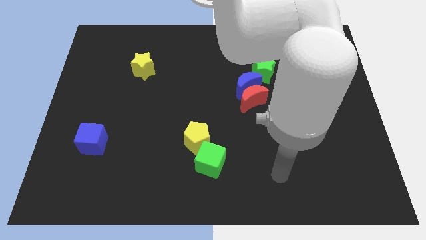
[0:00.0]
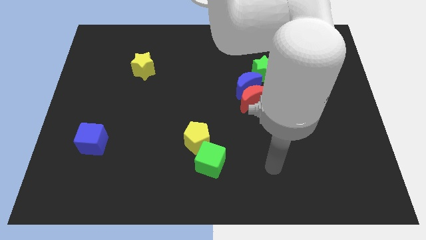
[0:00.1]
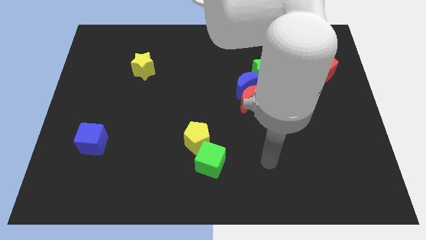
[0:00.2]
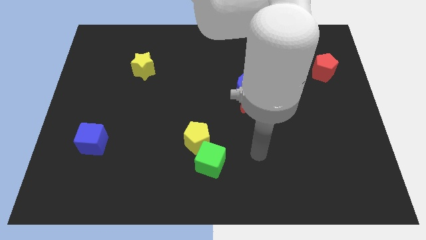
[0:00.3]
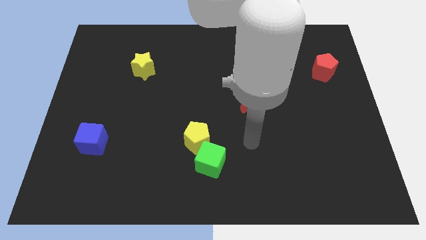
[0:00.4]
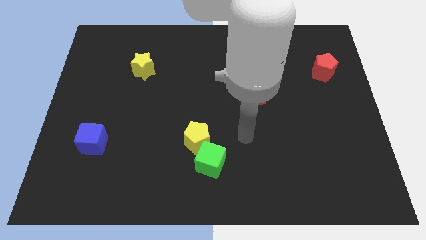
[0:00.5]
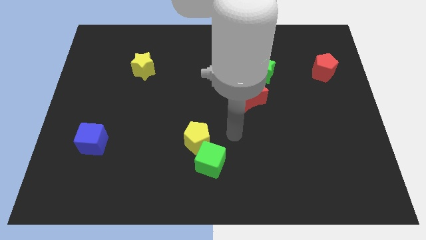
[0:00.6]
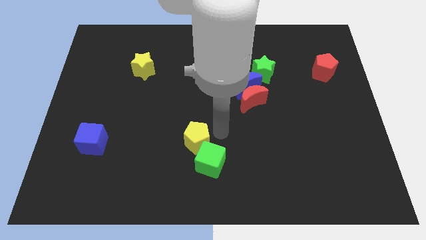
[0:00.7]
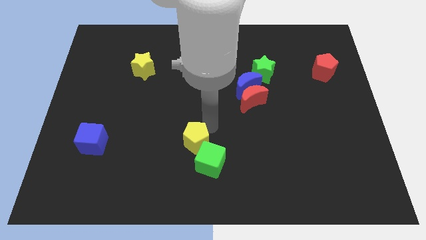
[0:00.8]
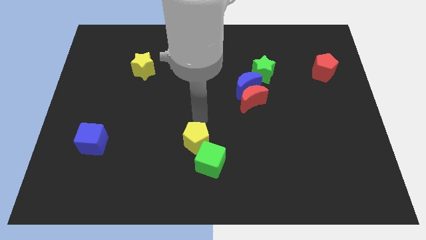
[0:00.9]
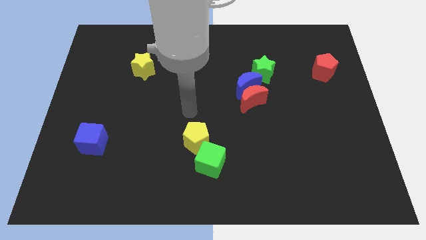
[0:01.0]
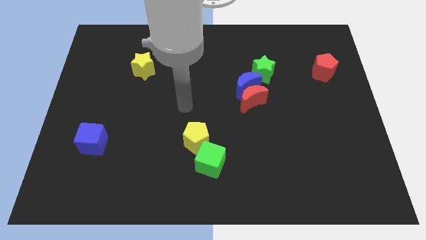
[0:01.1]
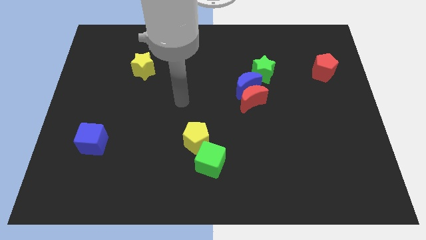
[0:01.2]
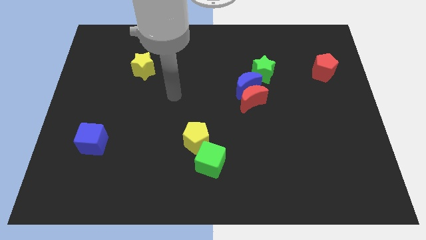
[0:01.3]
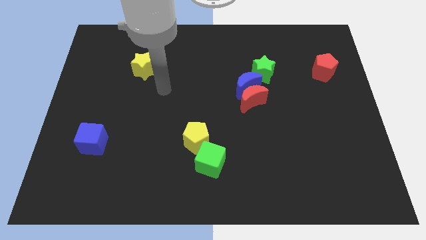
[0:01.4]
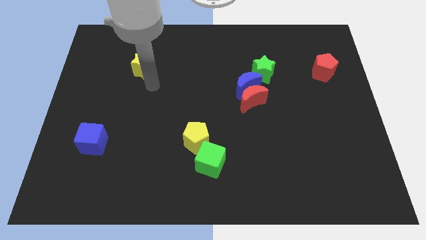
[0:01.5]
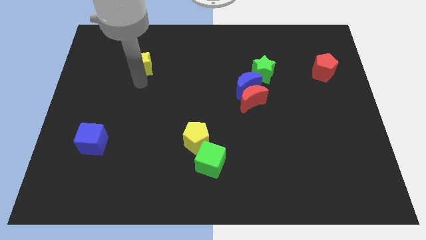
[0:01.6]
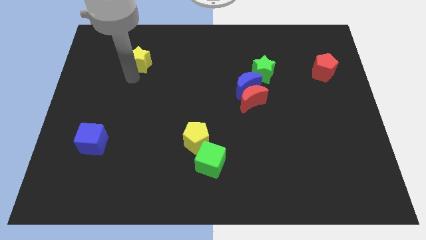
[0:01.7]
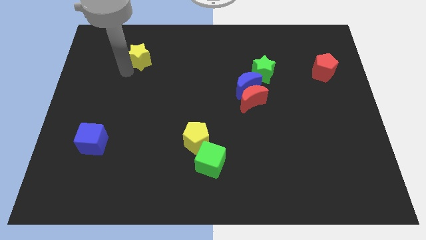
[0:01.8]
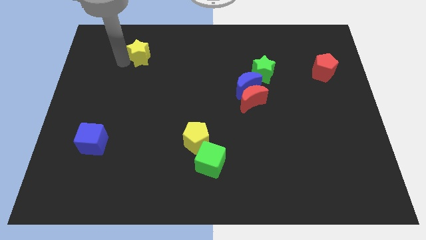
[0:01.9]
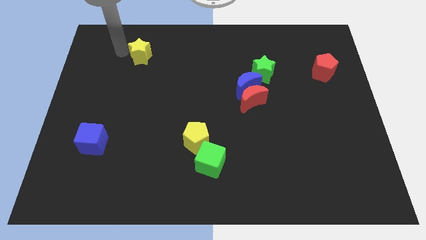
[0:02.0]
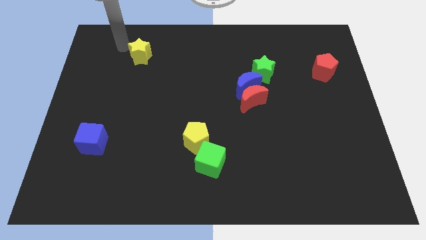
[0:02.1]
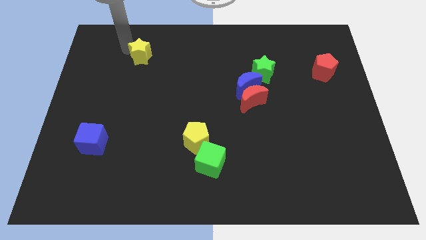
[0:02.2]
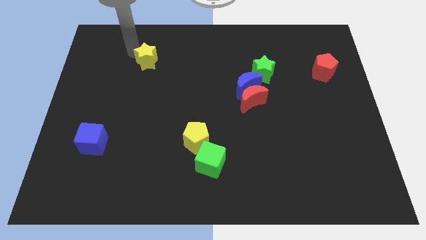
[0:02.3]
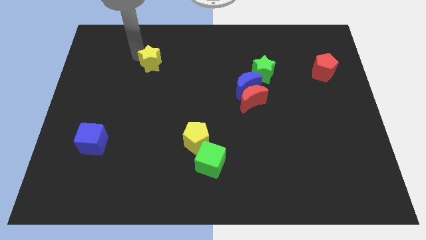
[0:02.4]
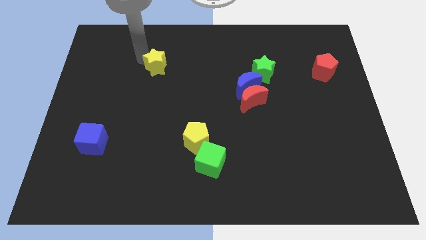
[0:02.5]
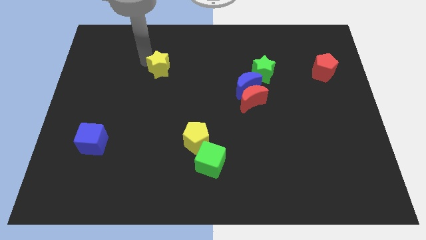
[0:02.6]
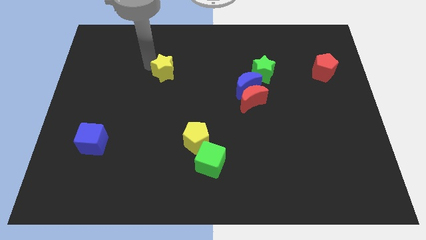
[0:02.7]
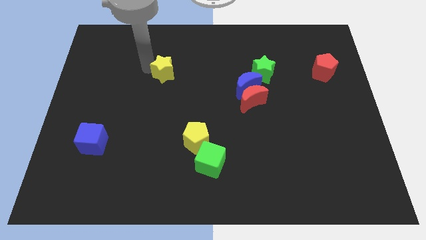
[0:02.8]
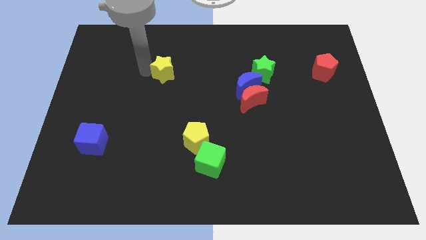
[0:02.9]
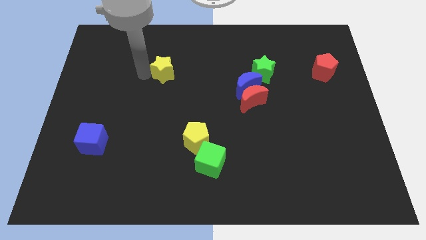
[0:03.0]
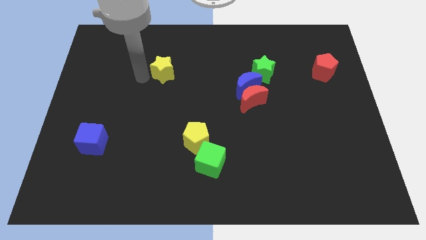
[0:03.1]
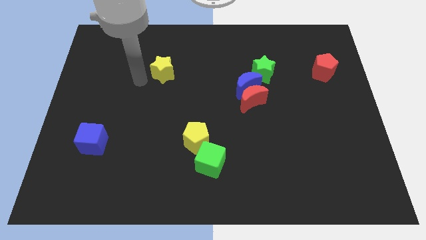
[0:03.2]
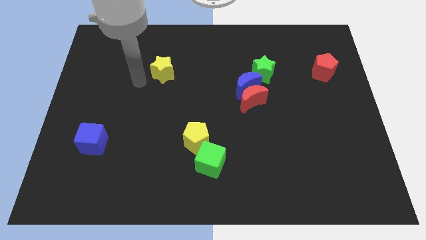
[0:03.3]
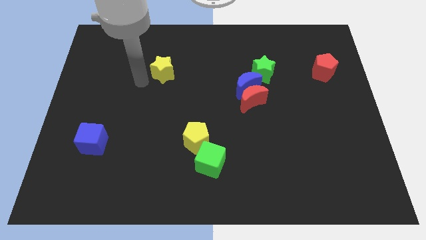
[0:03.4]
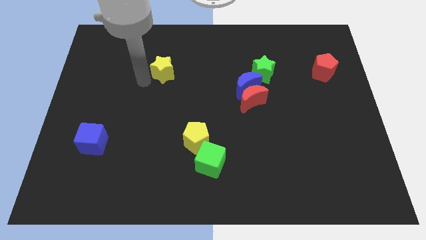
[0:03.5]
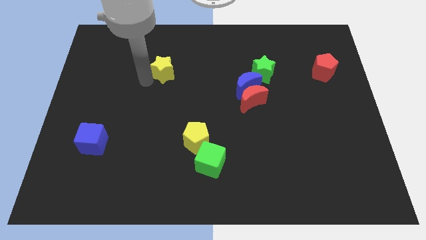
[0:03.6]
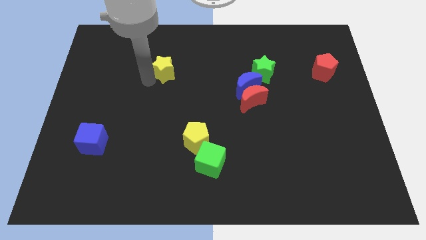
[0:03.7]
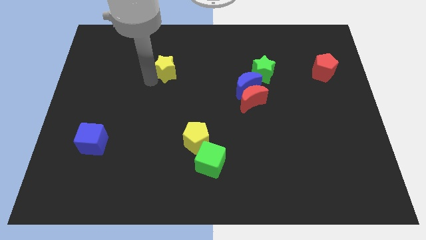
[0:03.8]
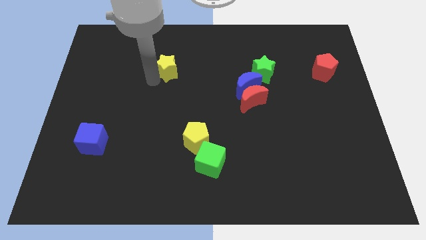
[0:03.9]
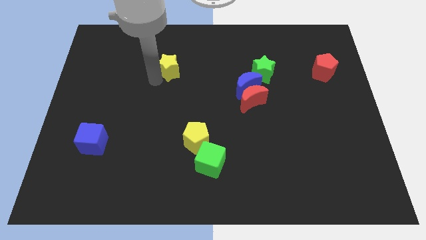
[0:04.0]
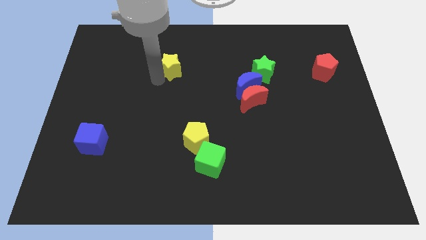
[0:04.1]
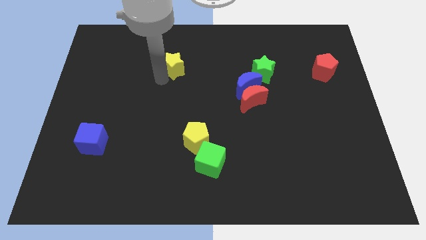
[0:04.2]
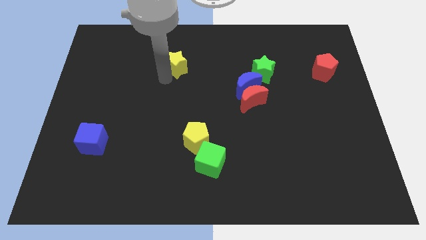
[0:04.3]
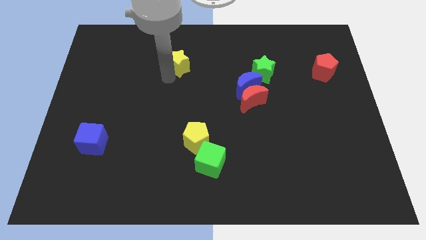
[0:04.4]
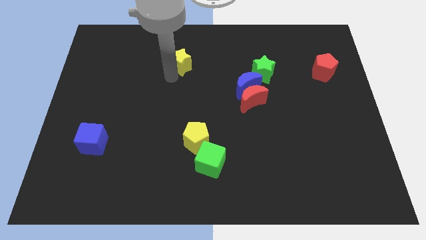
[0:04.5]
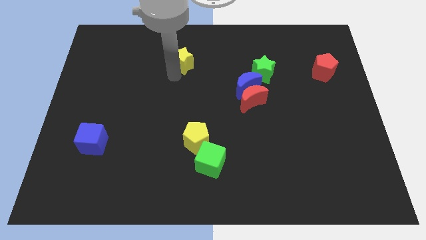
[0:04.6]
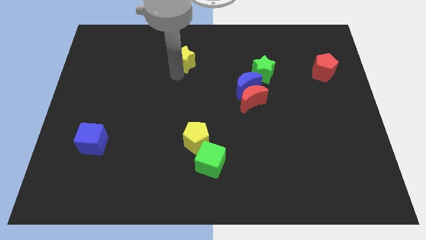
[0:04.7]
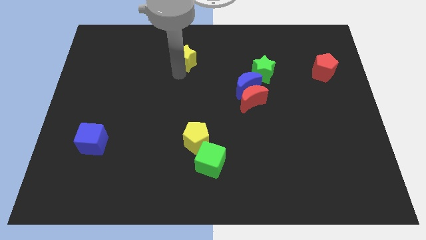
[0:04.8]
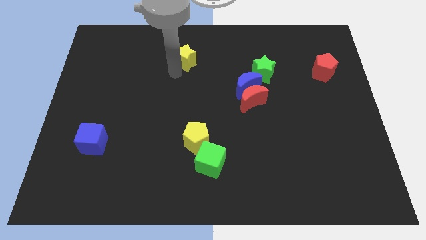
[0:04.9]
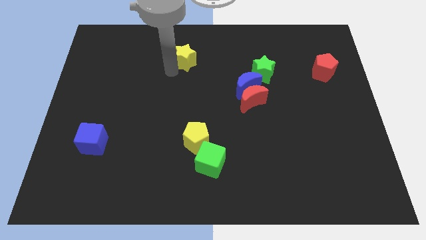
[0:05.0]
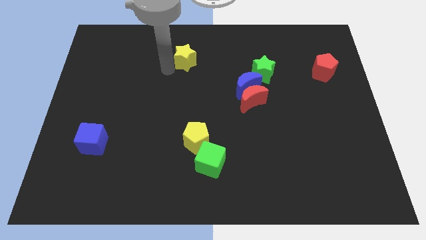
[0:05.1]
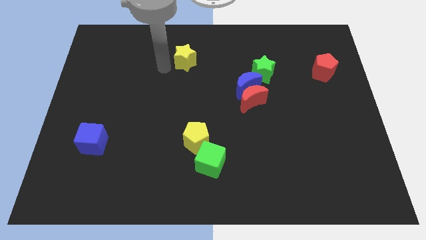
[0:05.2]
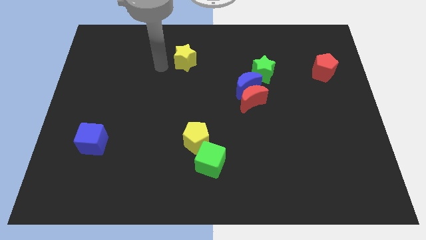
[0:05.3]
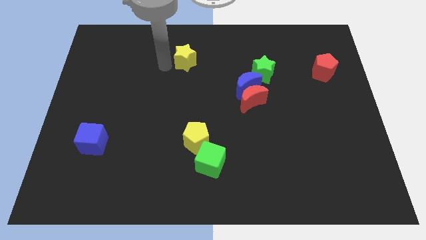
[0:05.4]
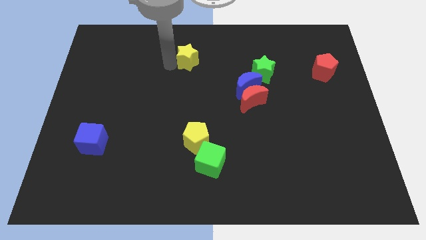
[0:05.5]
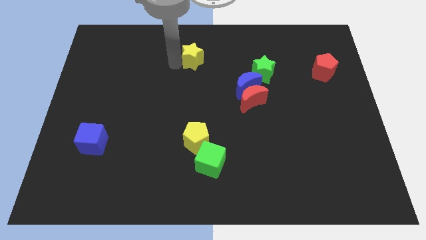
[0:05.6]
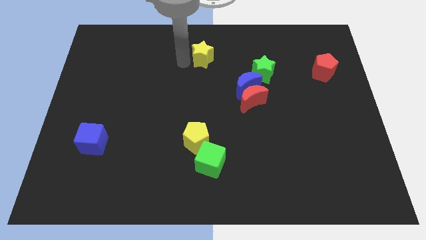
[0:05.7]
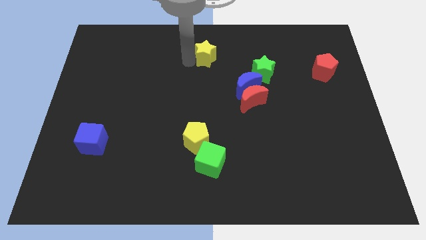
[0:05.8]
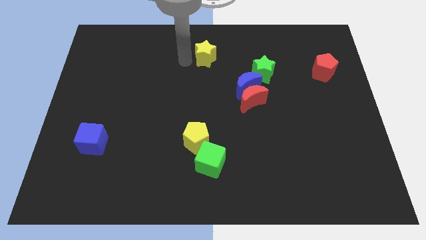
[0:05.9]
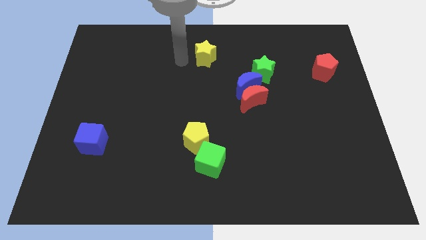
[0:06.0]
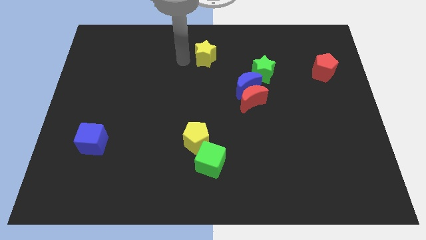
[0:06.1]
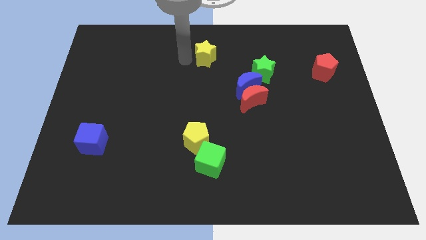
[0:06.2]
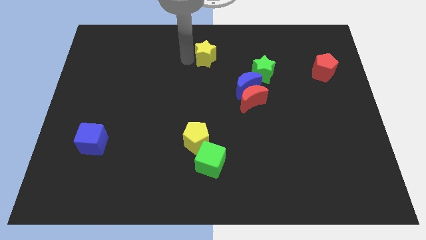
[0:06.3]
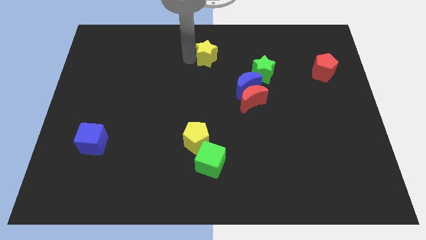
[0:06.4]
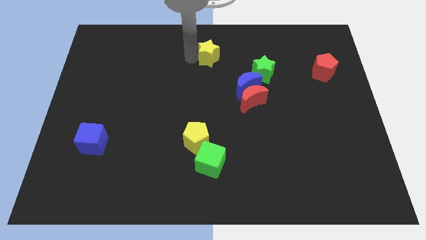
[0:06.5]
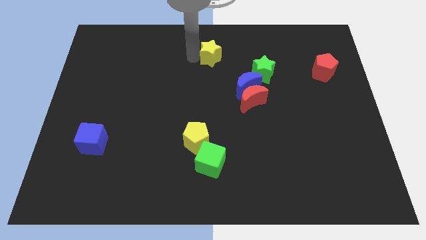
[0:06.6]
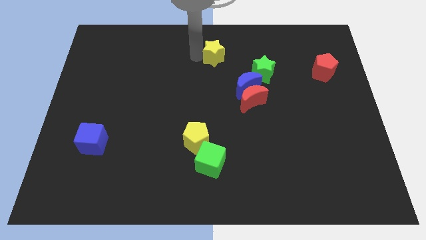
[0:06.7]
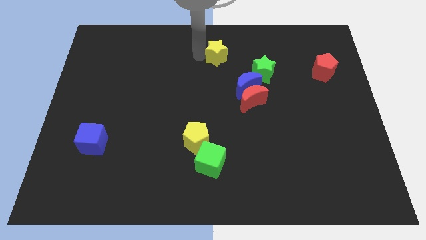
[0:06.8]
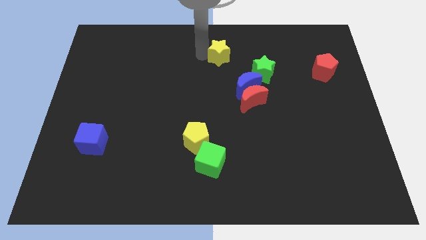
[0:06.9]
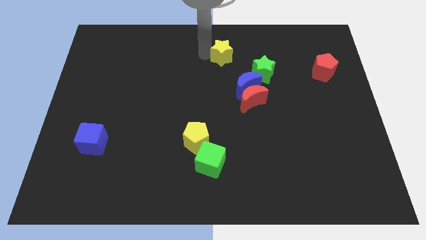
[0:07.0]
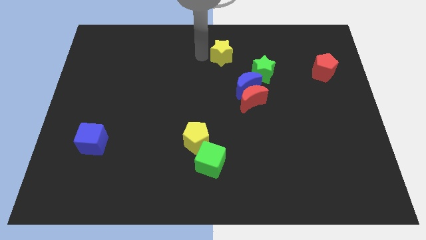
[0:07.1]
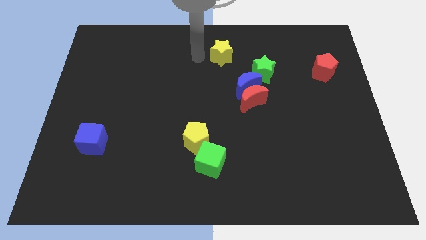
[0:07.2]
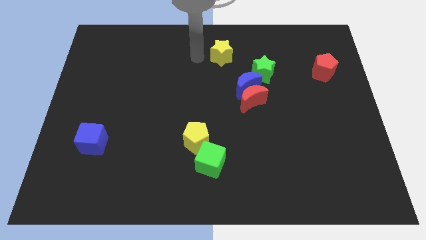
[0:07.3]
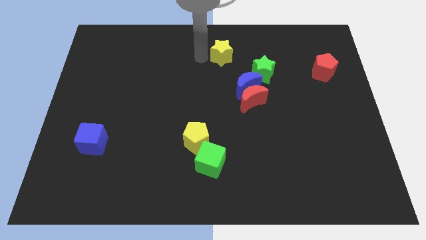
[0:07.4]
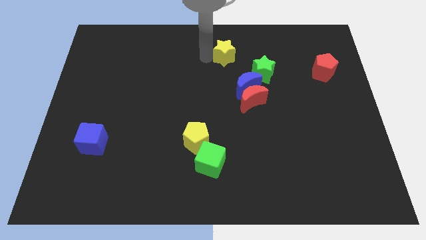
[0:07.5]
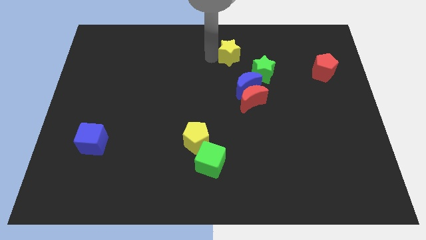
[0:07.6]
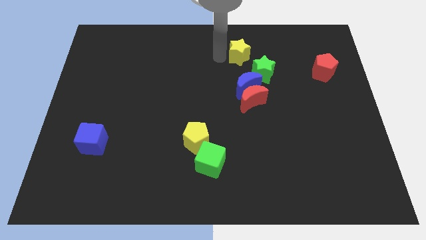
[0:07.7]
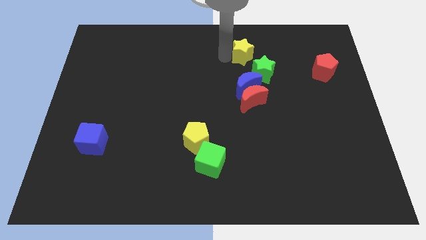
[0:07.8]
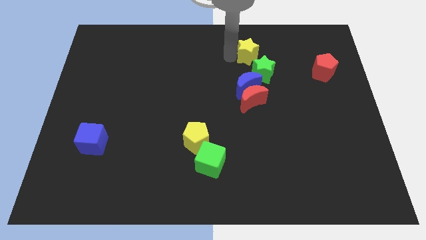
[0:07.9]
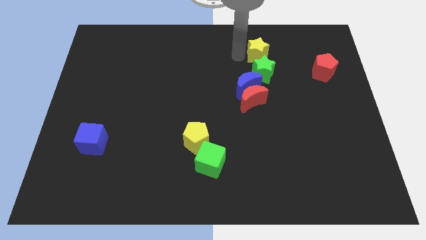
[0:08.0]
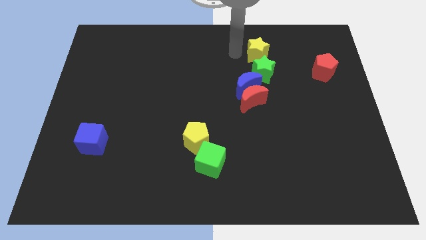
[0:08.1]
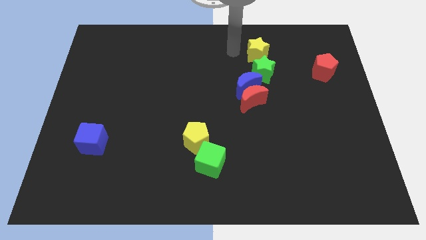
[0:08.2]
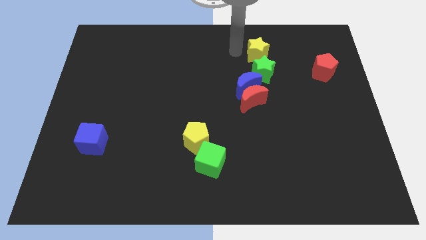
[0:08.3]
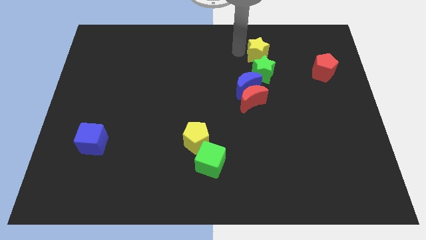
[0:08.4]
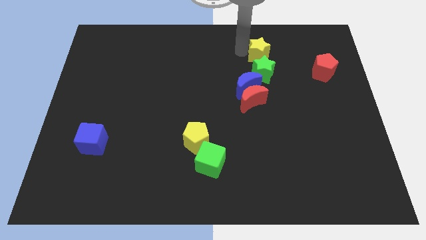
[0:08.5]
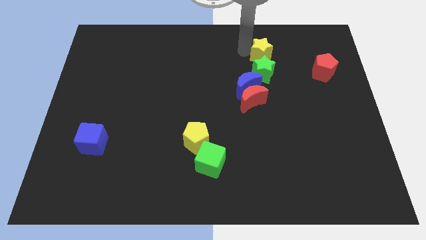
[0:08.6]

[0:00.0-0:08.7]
put the yellow star diagonally up and to the right of the green star
